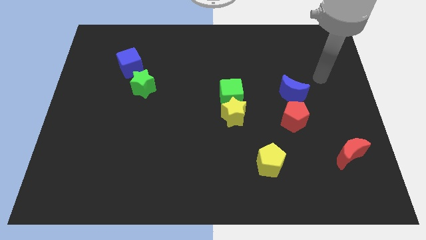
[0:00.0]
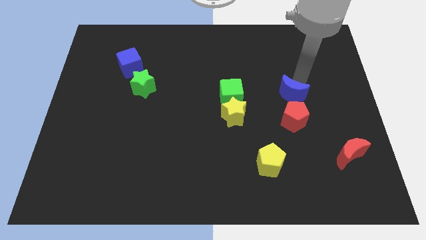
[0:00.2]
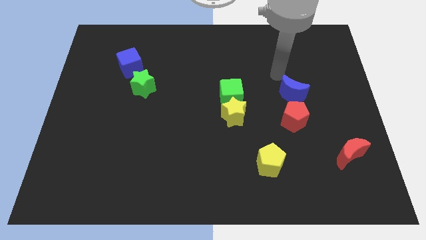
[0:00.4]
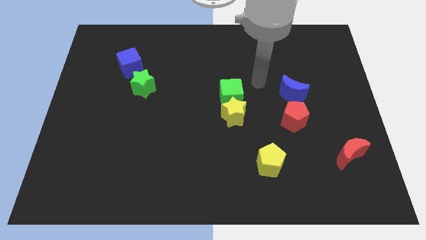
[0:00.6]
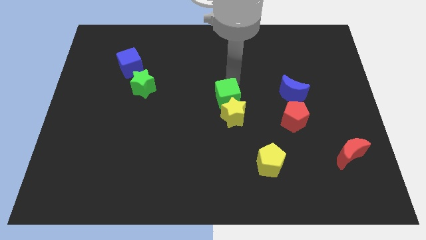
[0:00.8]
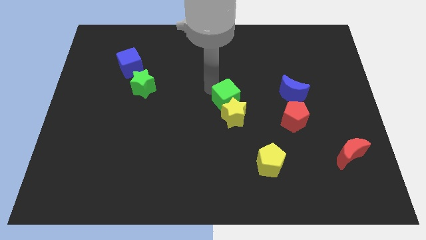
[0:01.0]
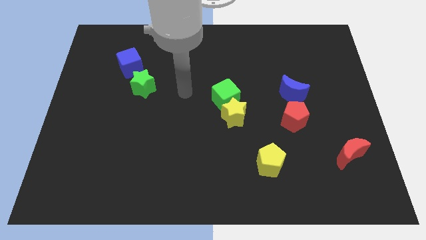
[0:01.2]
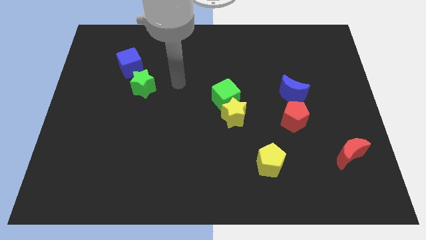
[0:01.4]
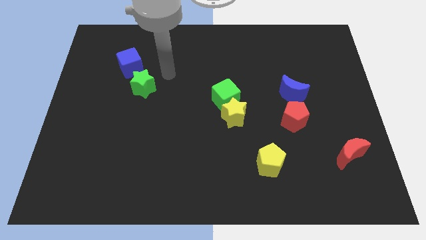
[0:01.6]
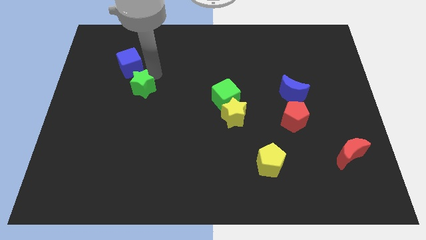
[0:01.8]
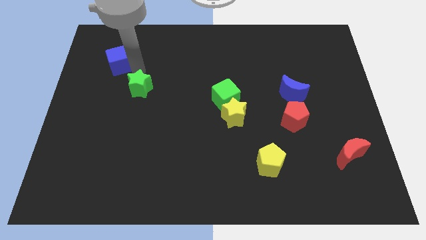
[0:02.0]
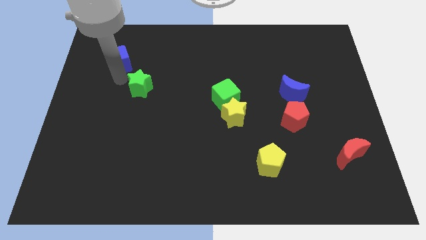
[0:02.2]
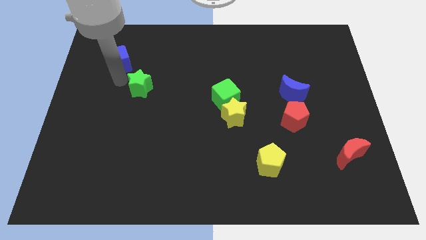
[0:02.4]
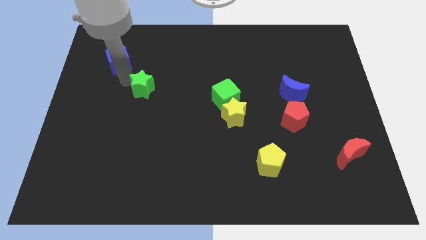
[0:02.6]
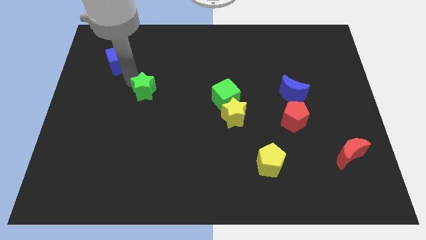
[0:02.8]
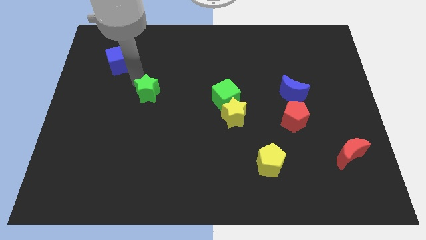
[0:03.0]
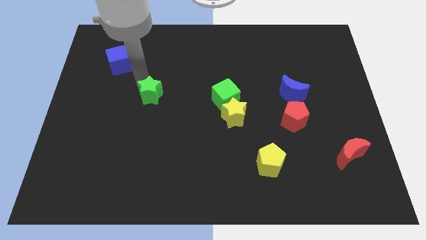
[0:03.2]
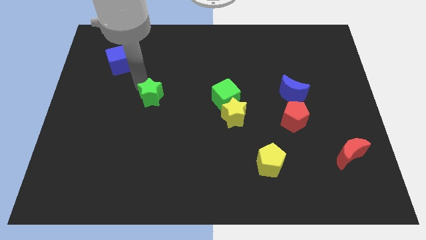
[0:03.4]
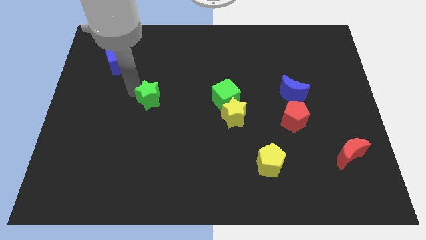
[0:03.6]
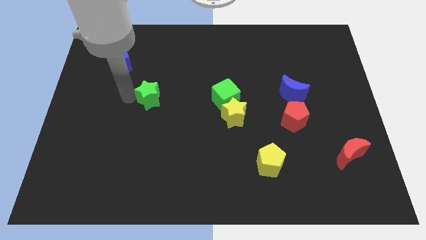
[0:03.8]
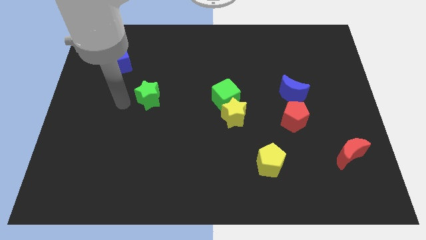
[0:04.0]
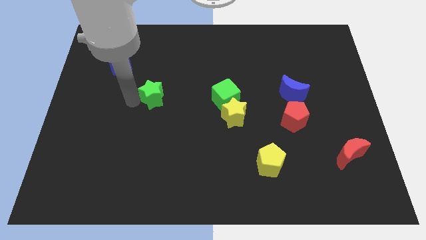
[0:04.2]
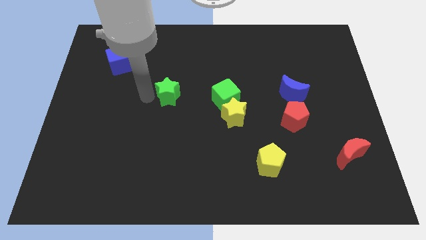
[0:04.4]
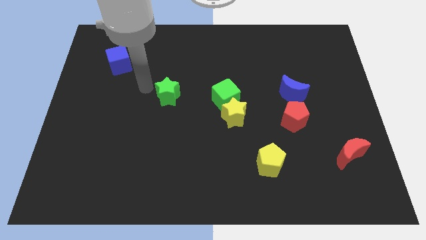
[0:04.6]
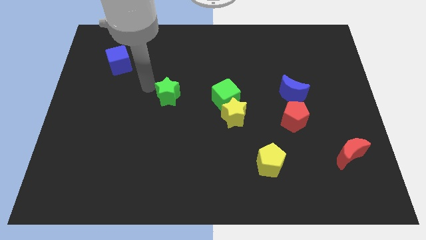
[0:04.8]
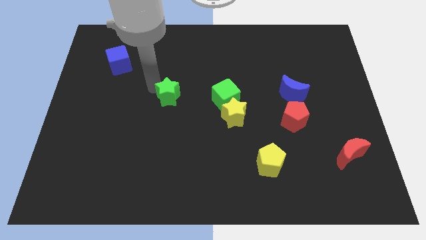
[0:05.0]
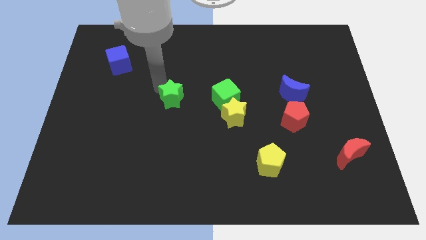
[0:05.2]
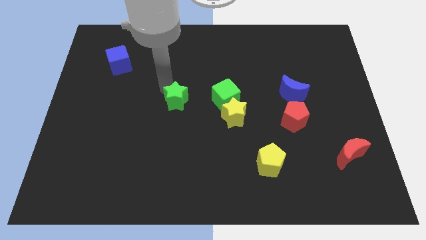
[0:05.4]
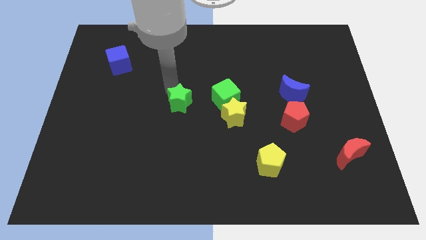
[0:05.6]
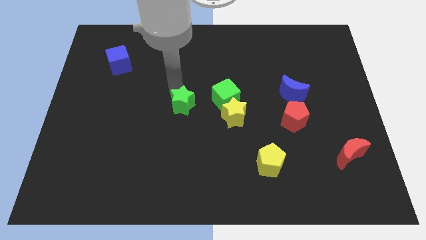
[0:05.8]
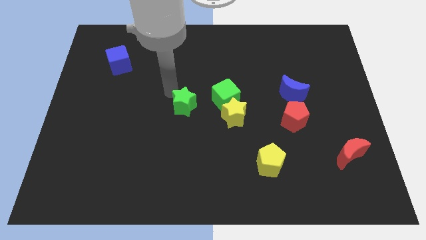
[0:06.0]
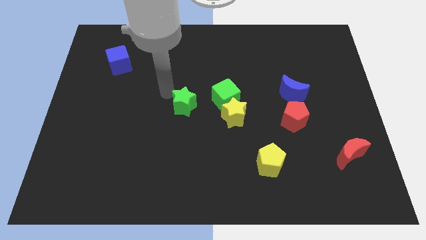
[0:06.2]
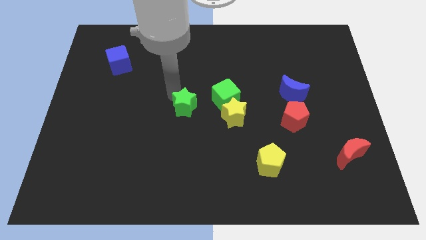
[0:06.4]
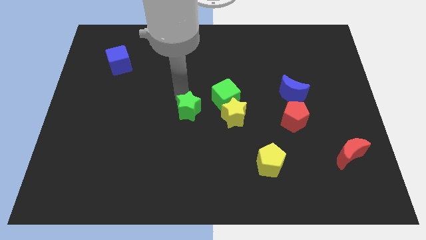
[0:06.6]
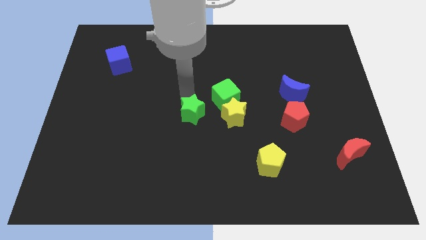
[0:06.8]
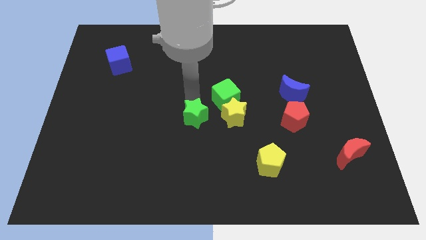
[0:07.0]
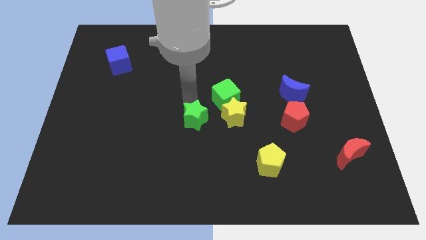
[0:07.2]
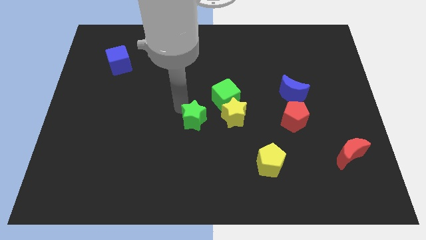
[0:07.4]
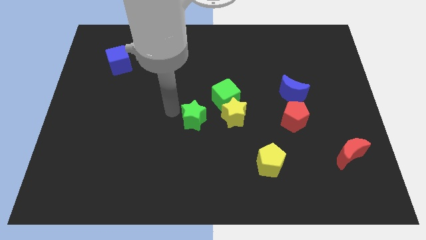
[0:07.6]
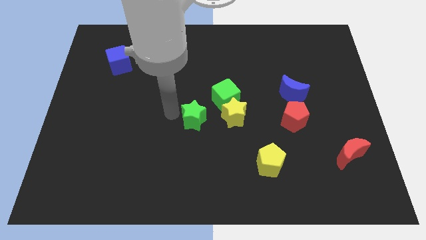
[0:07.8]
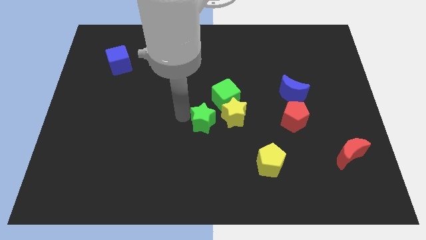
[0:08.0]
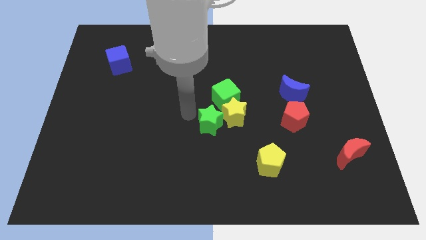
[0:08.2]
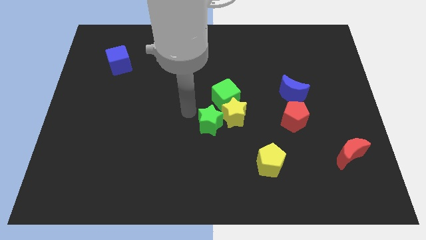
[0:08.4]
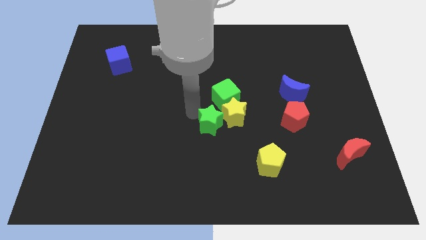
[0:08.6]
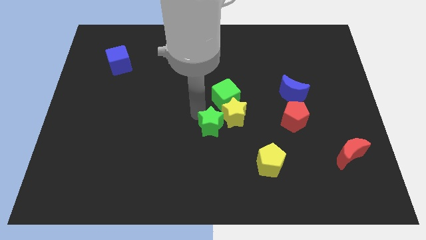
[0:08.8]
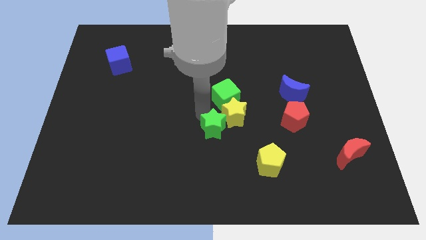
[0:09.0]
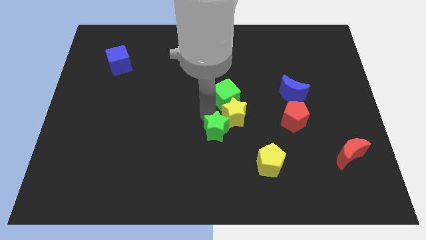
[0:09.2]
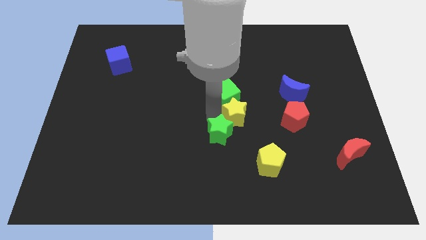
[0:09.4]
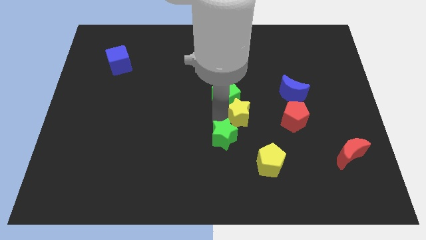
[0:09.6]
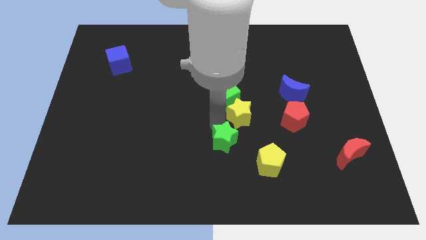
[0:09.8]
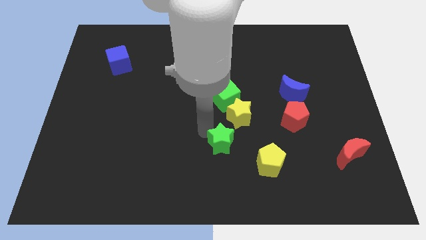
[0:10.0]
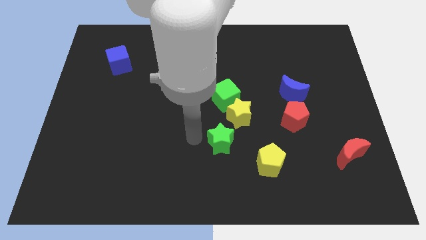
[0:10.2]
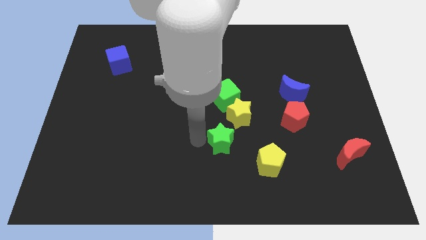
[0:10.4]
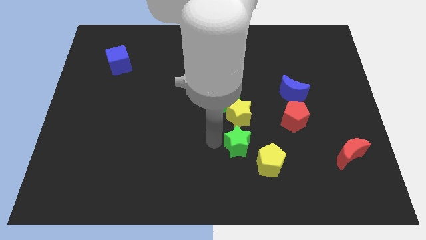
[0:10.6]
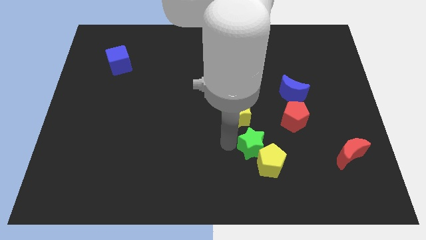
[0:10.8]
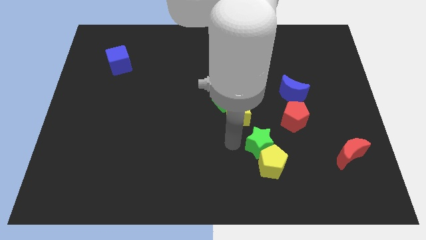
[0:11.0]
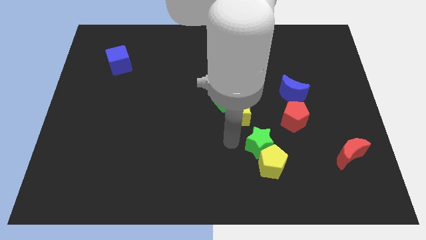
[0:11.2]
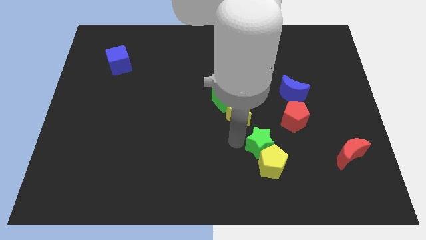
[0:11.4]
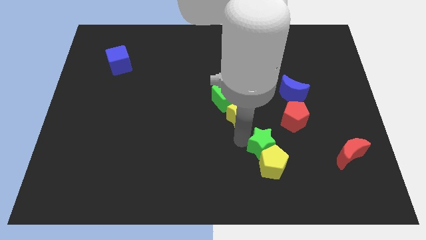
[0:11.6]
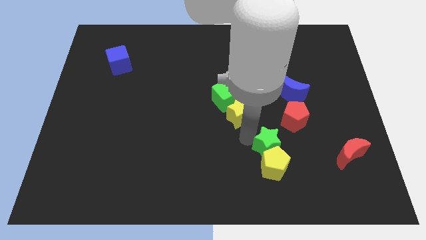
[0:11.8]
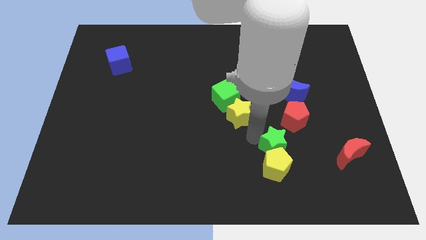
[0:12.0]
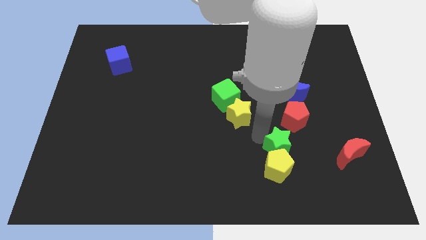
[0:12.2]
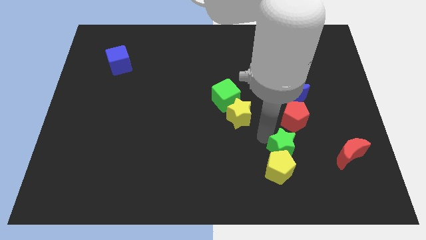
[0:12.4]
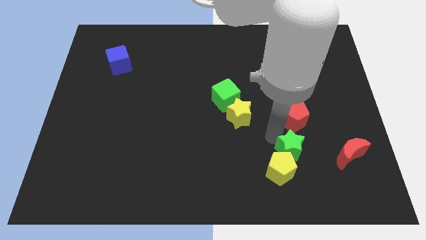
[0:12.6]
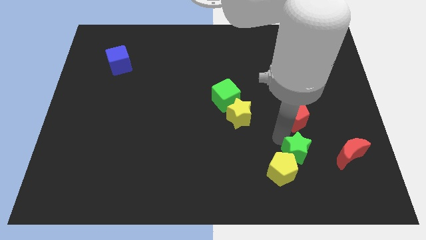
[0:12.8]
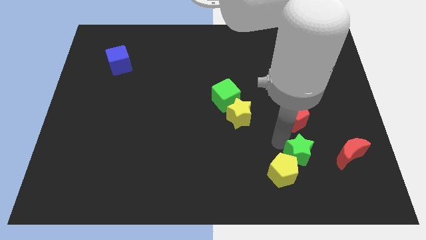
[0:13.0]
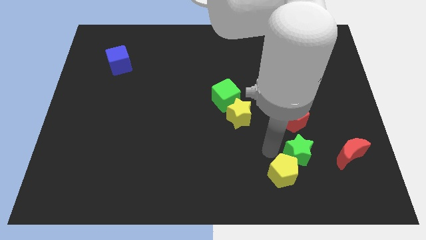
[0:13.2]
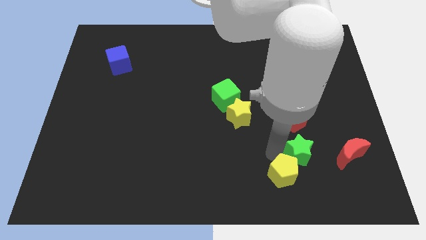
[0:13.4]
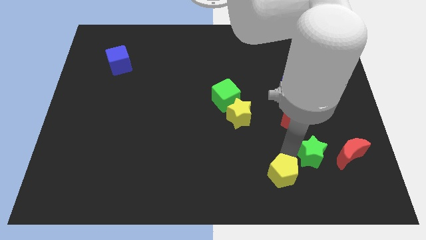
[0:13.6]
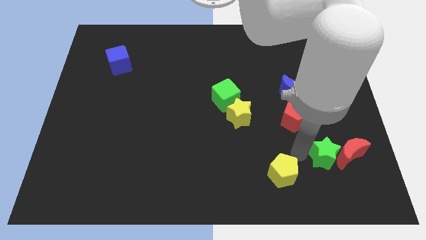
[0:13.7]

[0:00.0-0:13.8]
push the green star towards the red moon
